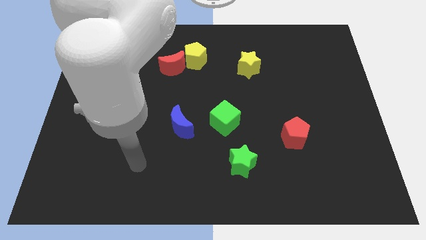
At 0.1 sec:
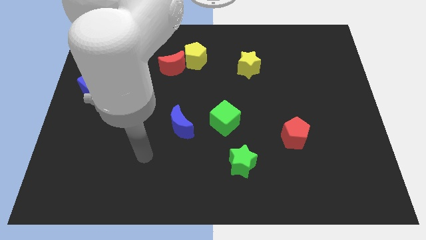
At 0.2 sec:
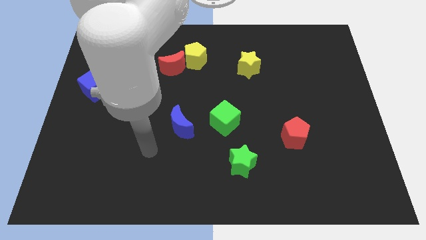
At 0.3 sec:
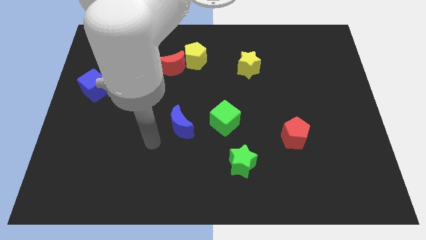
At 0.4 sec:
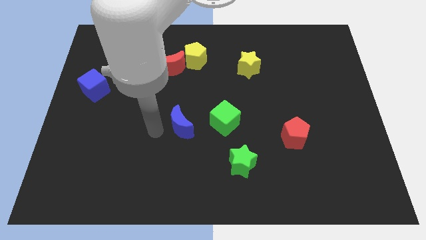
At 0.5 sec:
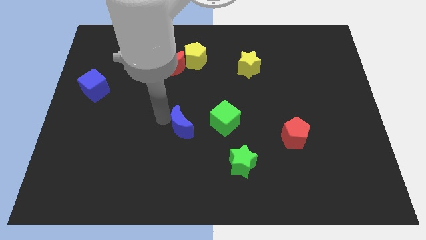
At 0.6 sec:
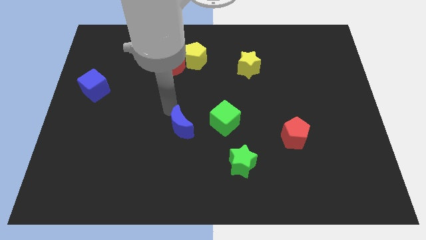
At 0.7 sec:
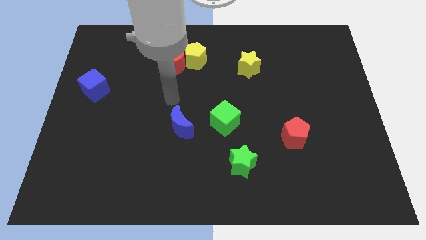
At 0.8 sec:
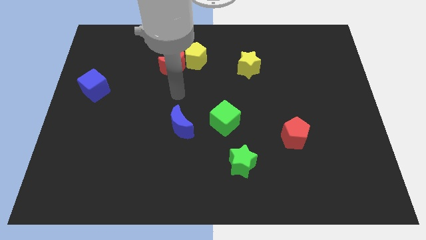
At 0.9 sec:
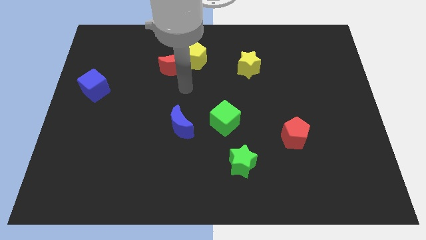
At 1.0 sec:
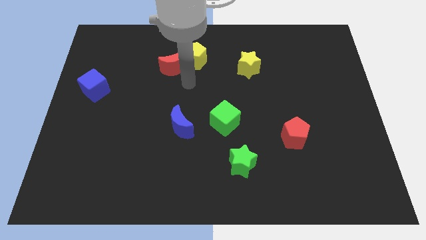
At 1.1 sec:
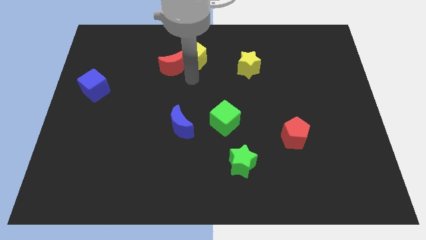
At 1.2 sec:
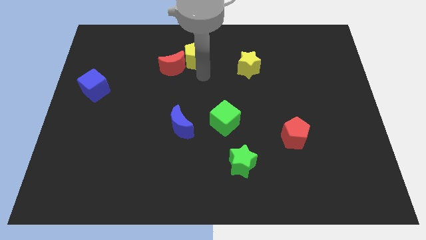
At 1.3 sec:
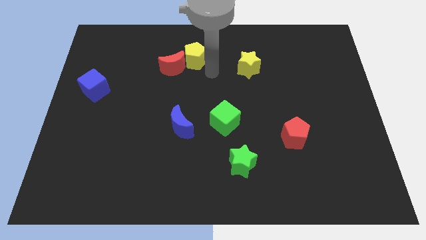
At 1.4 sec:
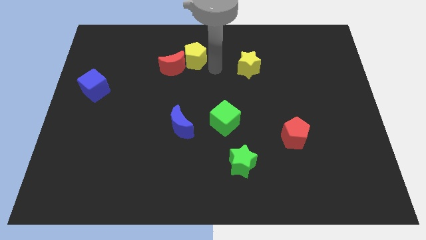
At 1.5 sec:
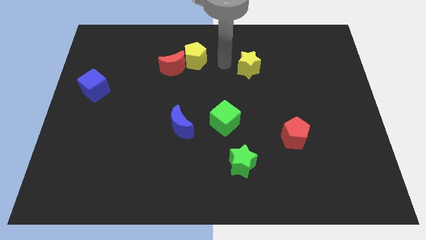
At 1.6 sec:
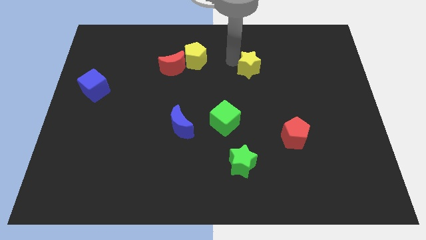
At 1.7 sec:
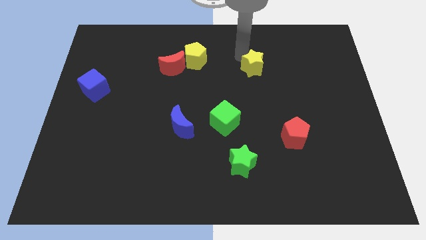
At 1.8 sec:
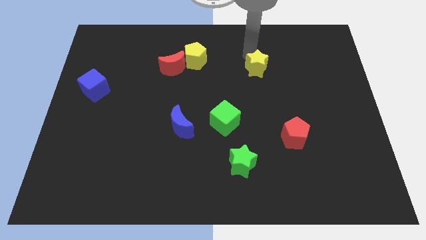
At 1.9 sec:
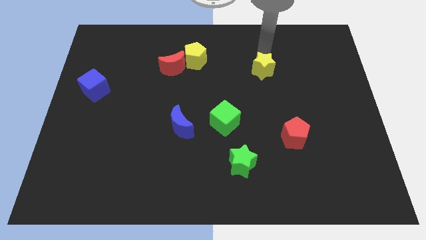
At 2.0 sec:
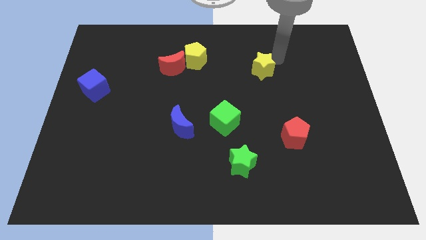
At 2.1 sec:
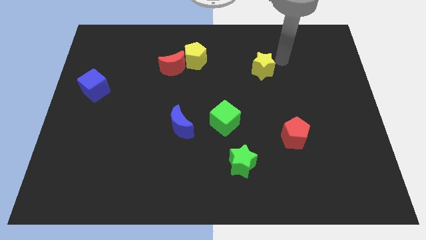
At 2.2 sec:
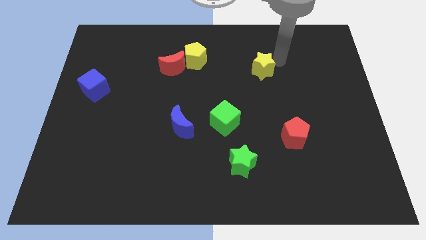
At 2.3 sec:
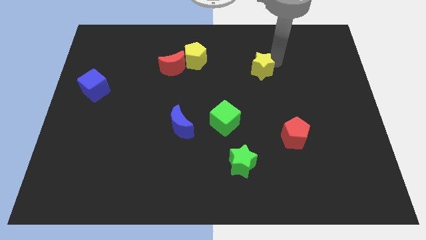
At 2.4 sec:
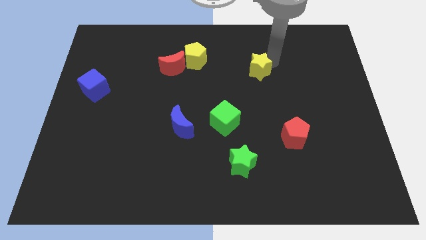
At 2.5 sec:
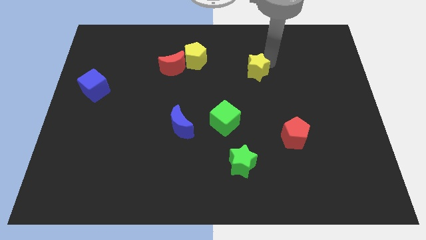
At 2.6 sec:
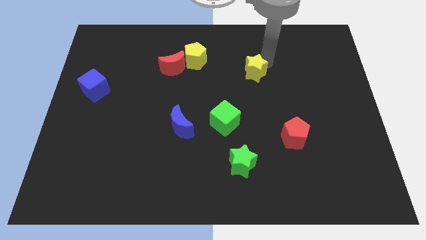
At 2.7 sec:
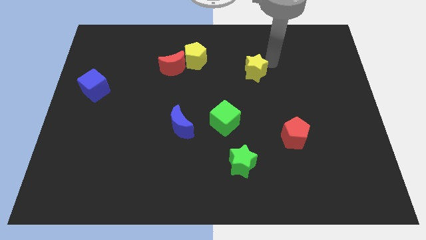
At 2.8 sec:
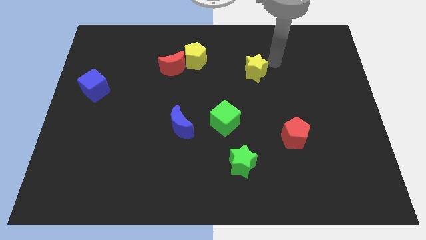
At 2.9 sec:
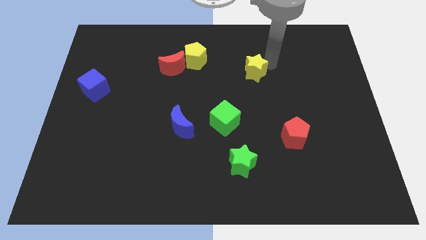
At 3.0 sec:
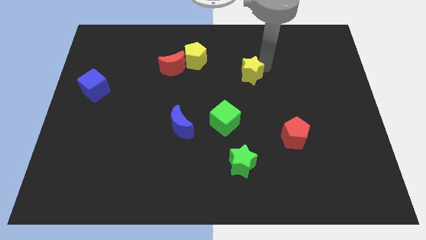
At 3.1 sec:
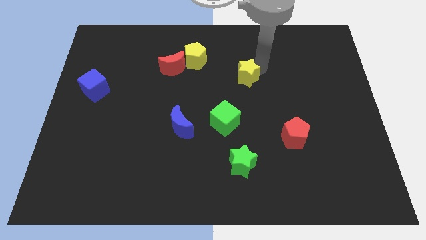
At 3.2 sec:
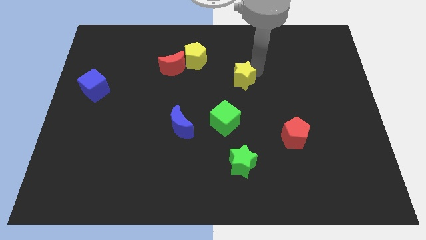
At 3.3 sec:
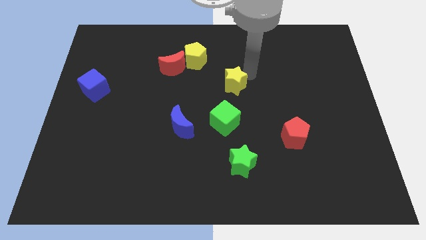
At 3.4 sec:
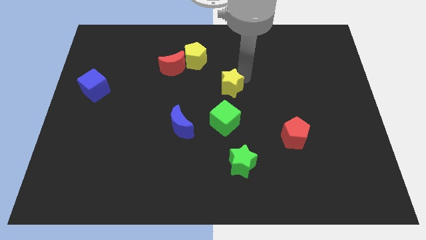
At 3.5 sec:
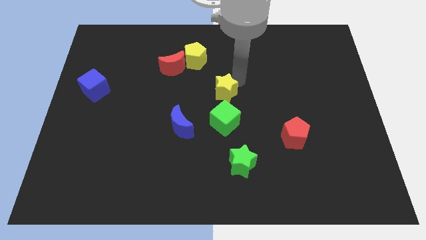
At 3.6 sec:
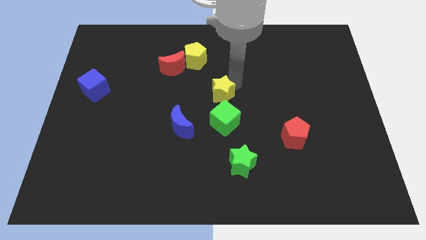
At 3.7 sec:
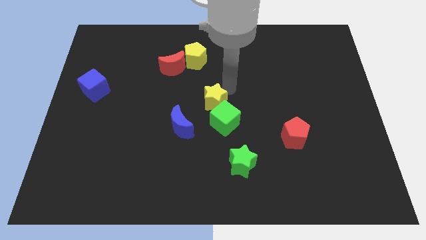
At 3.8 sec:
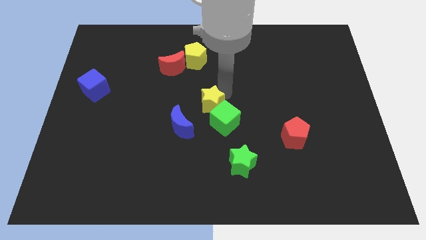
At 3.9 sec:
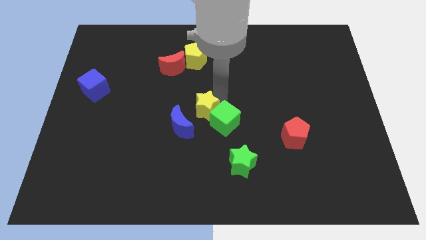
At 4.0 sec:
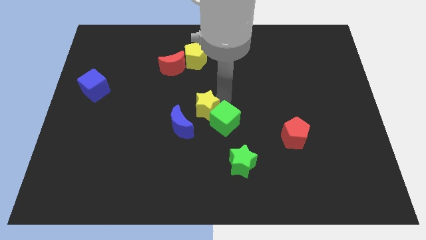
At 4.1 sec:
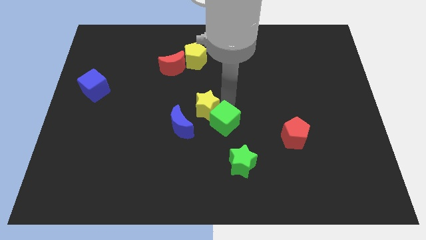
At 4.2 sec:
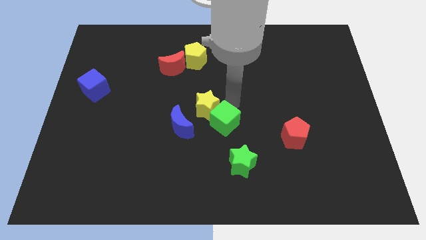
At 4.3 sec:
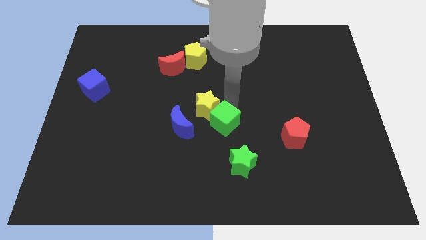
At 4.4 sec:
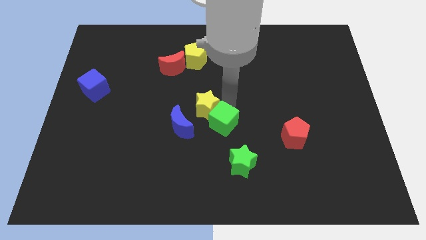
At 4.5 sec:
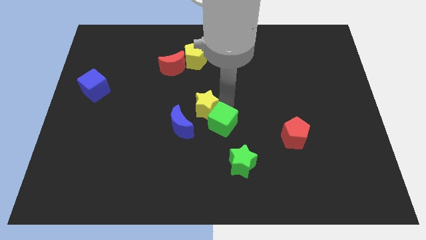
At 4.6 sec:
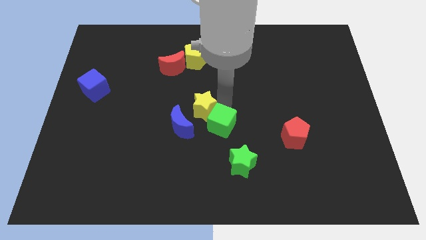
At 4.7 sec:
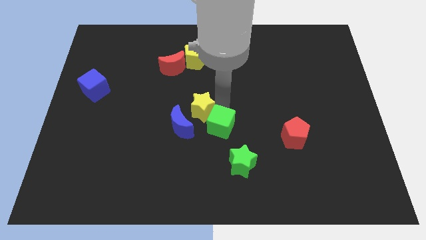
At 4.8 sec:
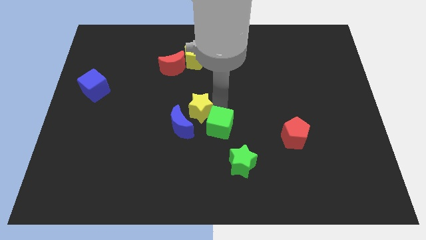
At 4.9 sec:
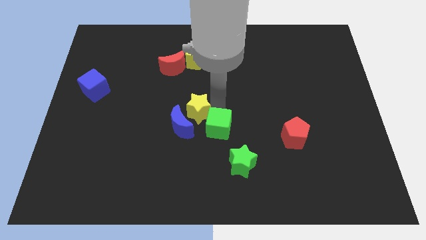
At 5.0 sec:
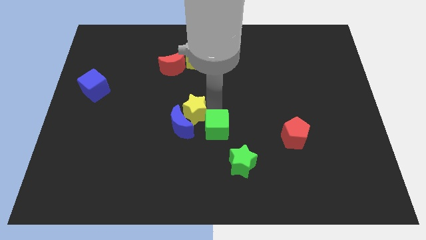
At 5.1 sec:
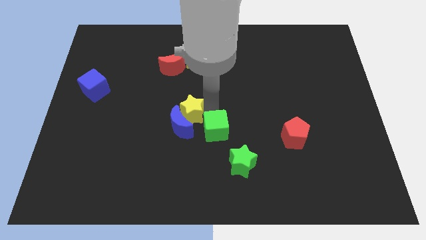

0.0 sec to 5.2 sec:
move the yellow star downwards and to the left diagonally

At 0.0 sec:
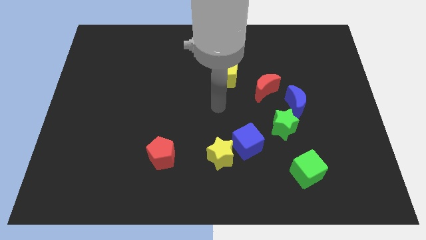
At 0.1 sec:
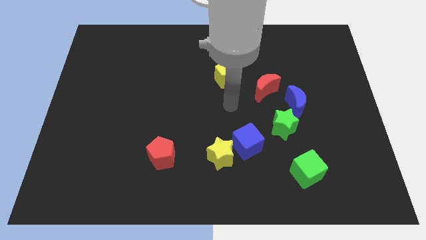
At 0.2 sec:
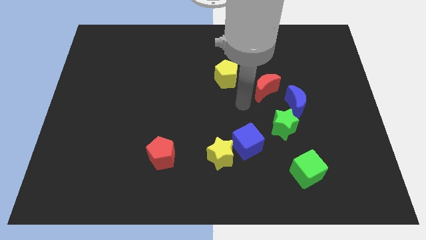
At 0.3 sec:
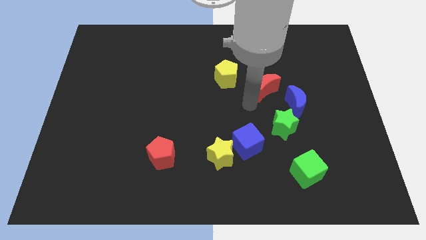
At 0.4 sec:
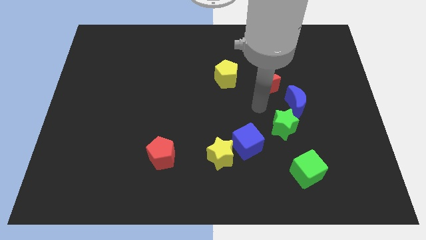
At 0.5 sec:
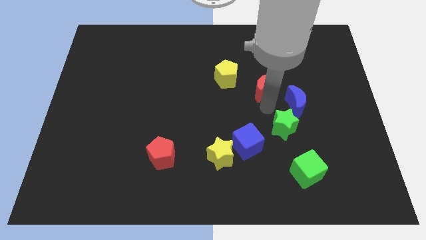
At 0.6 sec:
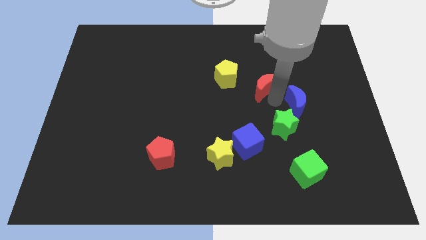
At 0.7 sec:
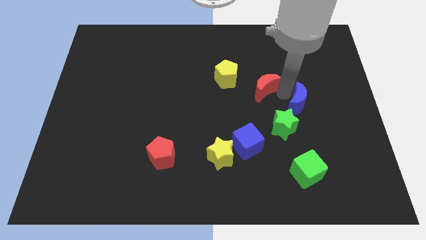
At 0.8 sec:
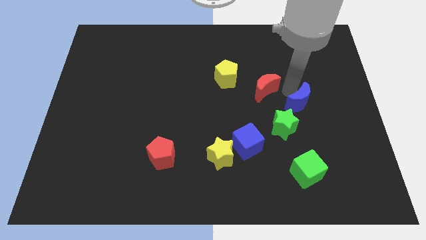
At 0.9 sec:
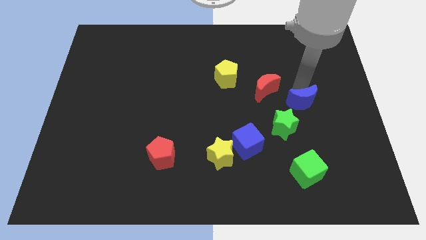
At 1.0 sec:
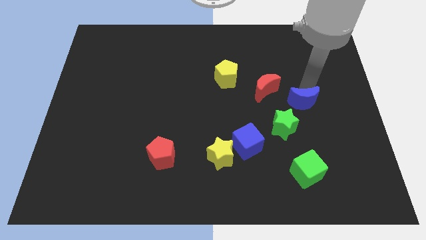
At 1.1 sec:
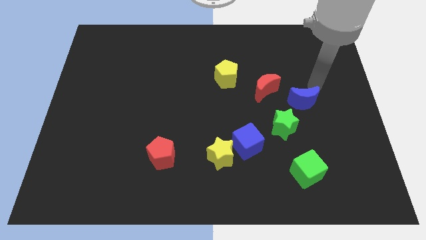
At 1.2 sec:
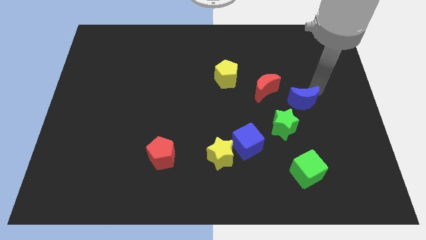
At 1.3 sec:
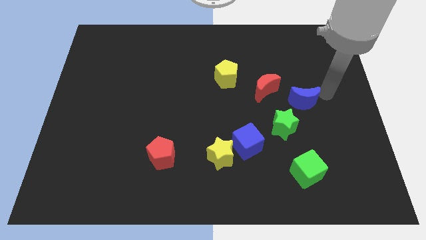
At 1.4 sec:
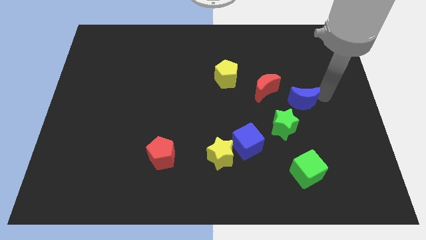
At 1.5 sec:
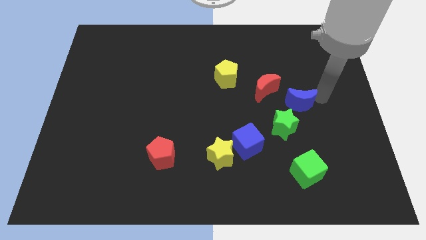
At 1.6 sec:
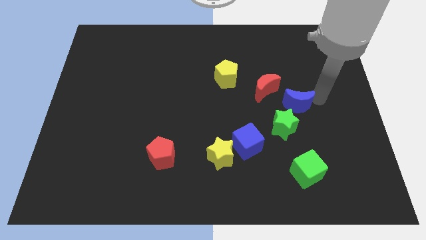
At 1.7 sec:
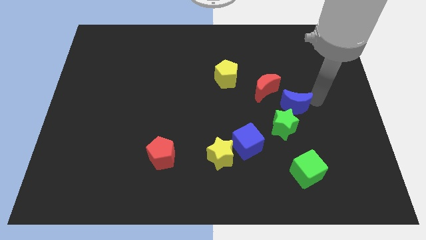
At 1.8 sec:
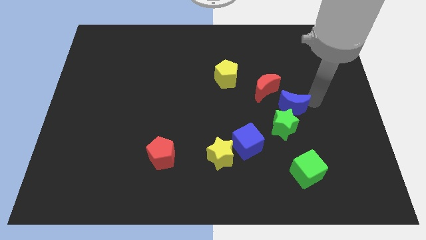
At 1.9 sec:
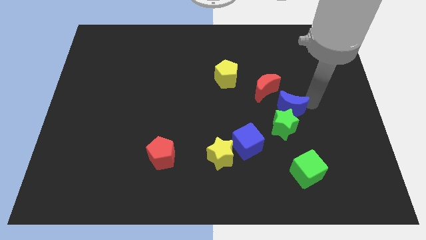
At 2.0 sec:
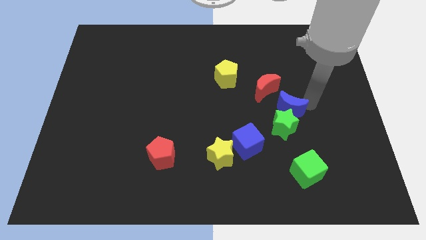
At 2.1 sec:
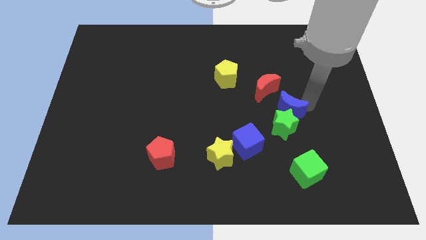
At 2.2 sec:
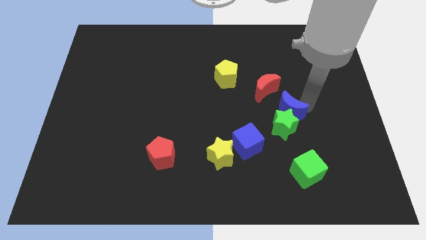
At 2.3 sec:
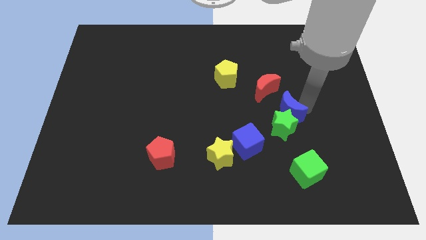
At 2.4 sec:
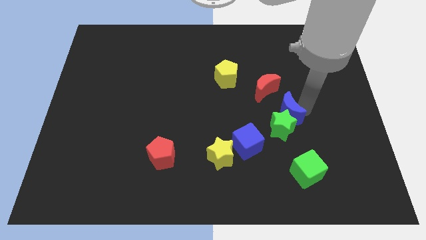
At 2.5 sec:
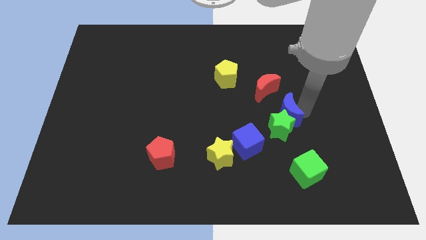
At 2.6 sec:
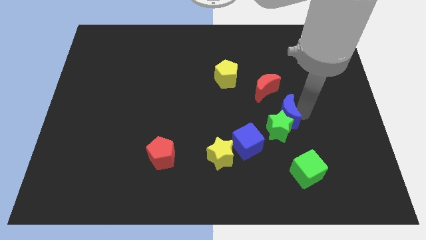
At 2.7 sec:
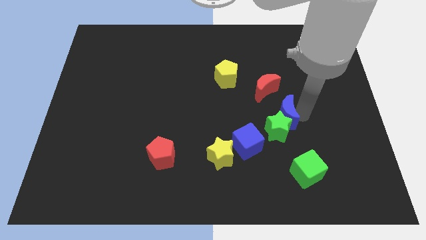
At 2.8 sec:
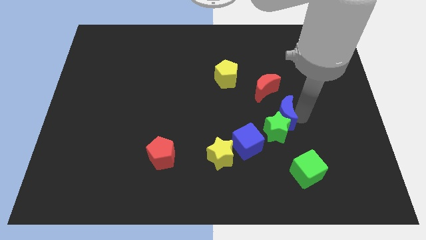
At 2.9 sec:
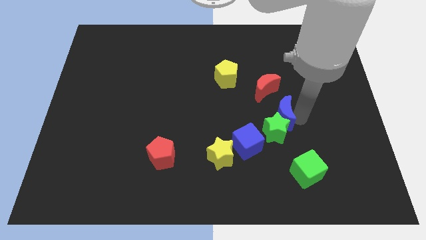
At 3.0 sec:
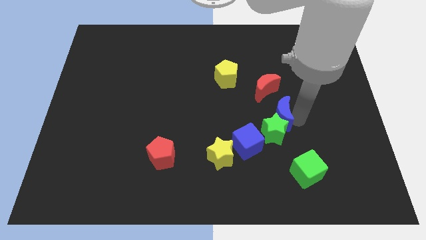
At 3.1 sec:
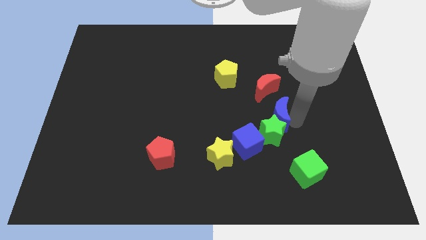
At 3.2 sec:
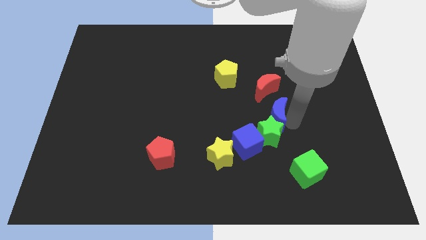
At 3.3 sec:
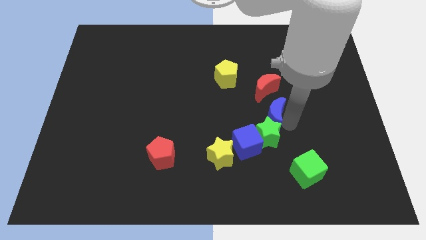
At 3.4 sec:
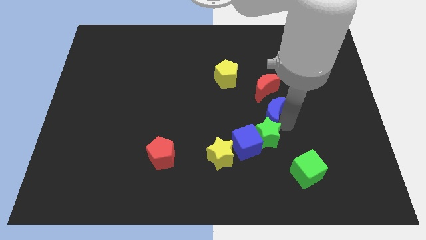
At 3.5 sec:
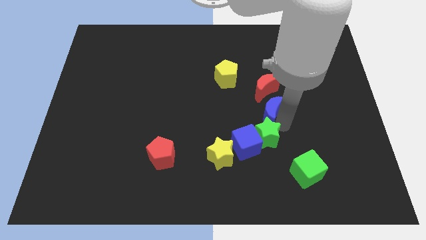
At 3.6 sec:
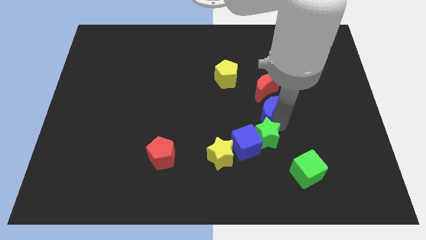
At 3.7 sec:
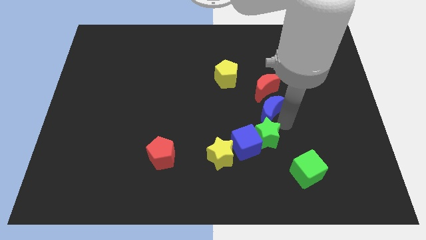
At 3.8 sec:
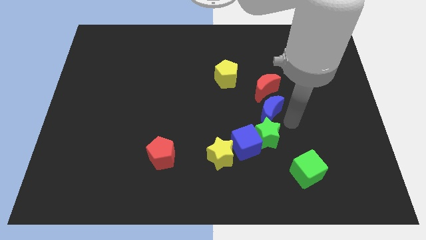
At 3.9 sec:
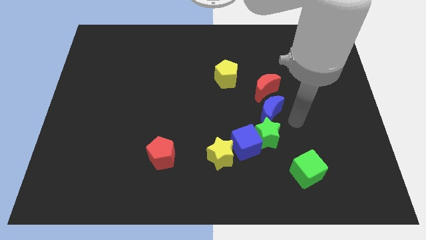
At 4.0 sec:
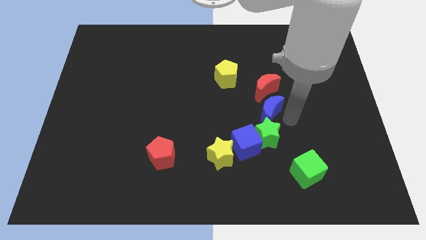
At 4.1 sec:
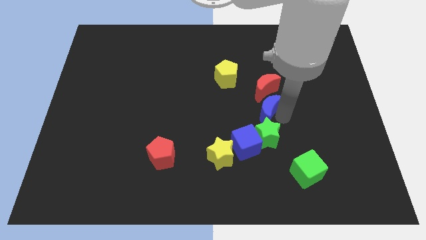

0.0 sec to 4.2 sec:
push the blue moon a bit left
